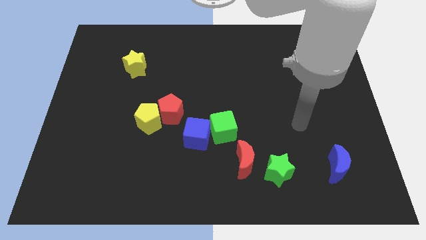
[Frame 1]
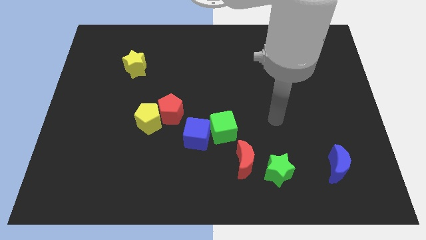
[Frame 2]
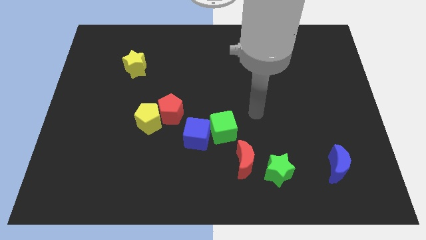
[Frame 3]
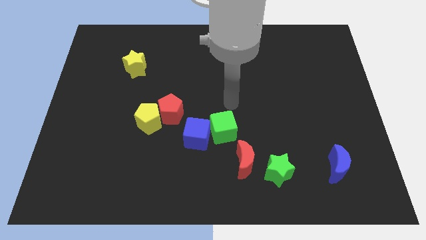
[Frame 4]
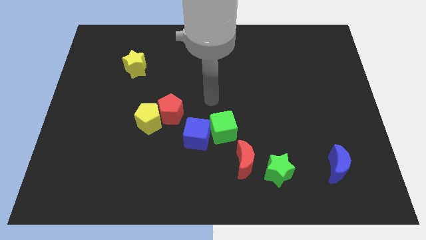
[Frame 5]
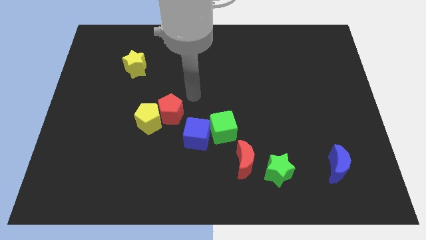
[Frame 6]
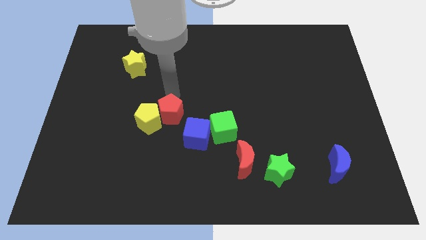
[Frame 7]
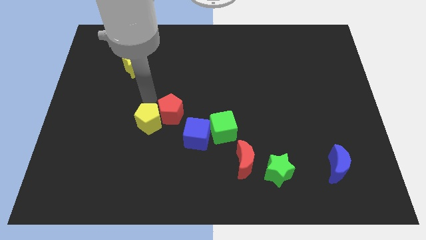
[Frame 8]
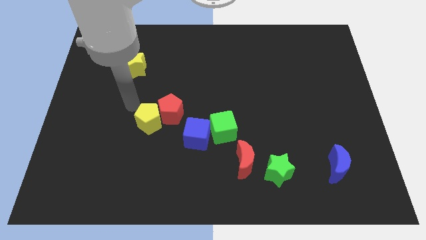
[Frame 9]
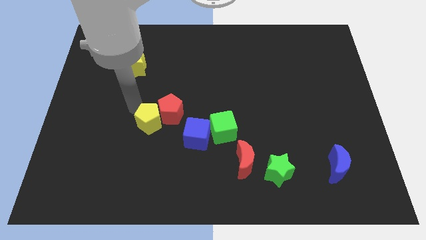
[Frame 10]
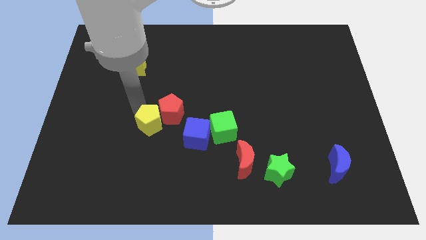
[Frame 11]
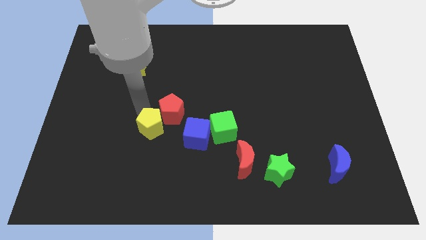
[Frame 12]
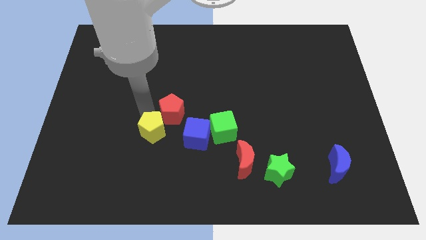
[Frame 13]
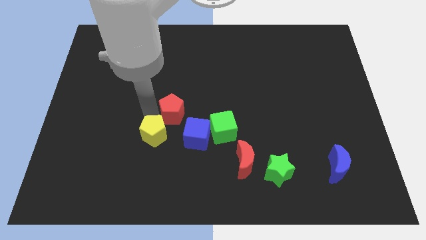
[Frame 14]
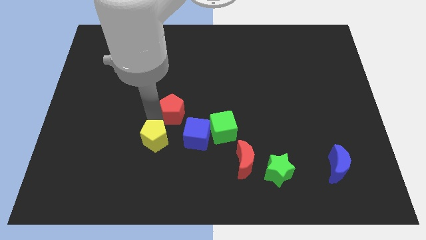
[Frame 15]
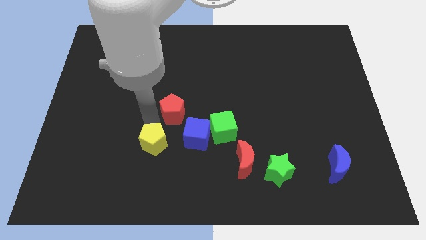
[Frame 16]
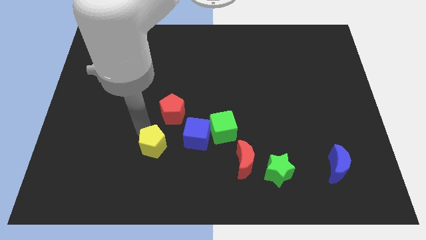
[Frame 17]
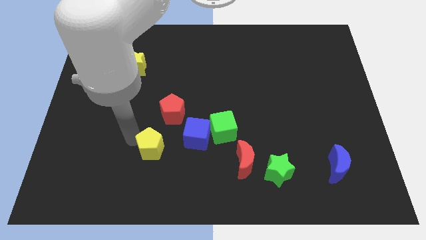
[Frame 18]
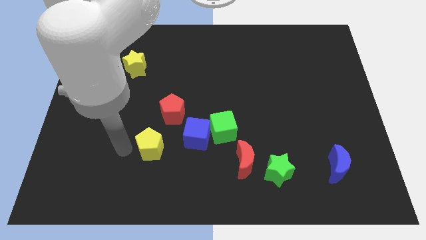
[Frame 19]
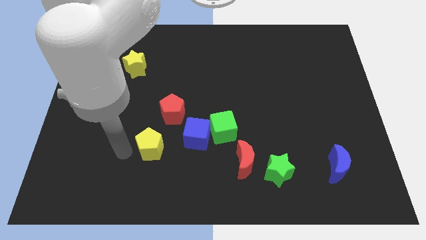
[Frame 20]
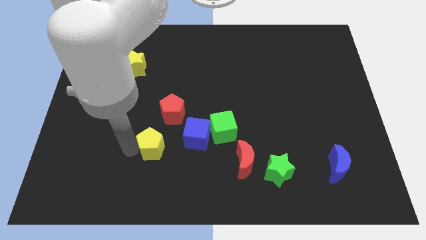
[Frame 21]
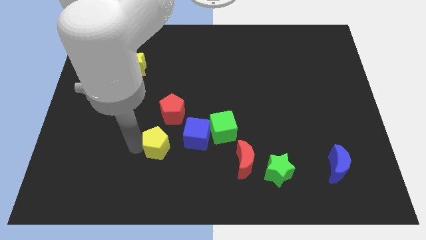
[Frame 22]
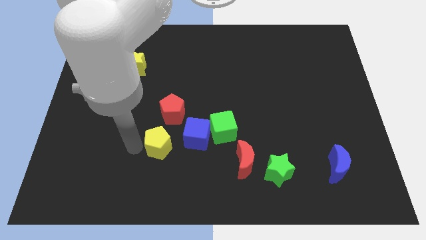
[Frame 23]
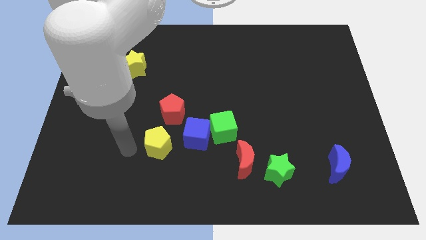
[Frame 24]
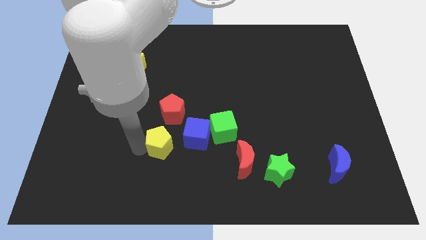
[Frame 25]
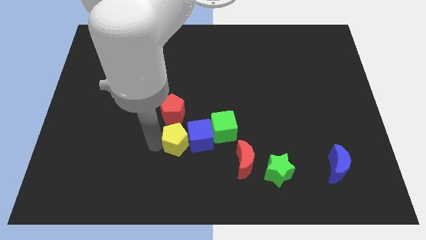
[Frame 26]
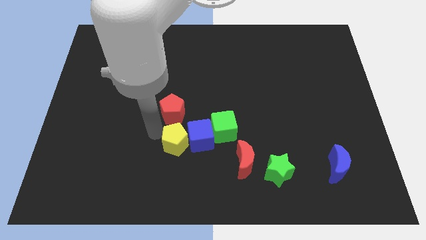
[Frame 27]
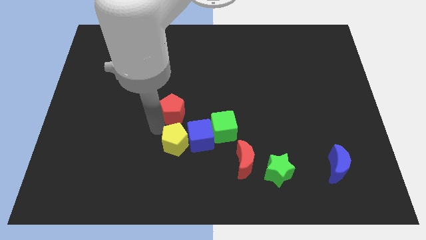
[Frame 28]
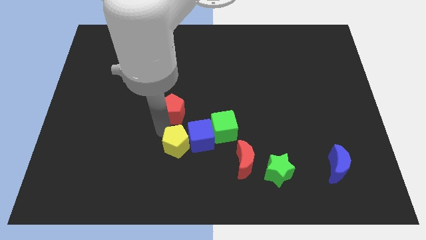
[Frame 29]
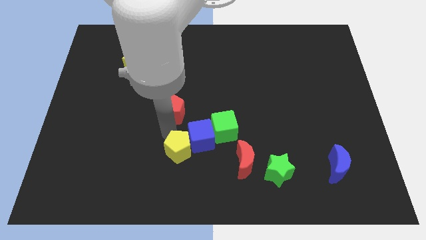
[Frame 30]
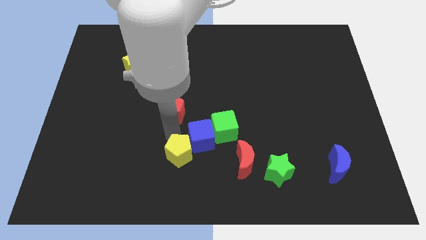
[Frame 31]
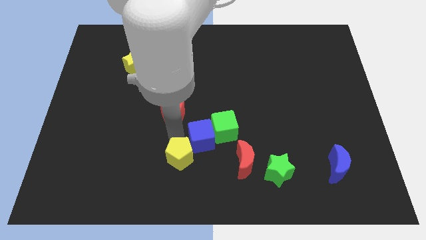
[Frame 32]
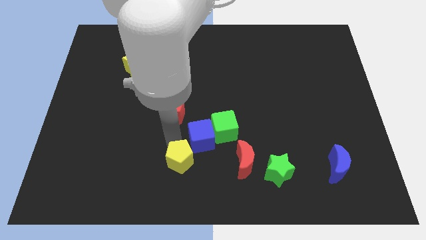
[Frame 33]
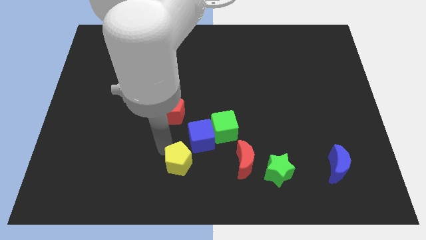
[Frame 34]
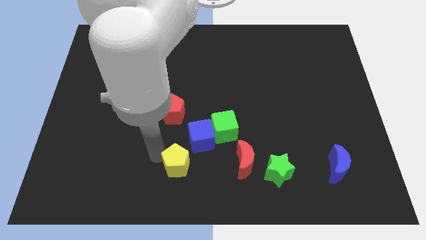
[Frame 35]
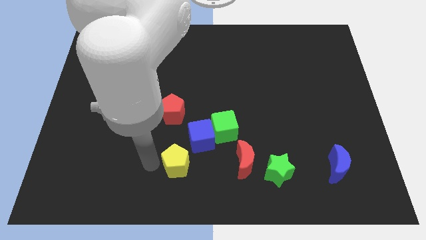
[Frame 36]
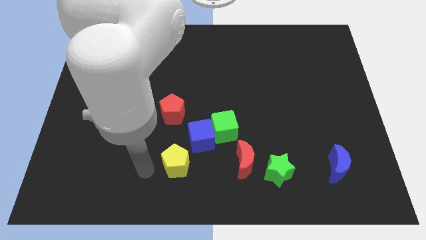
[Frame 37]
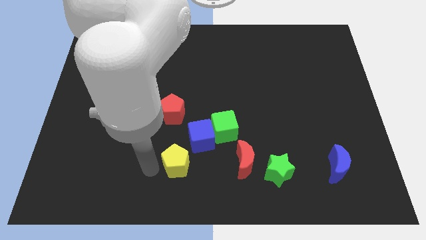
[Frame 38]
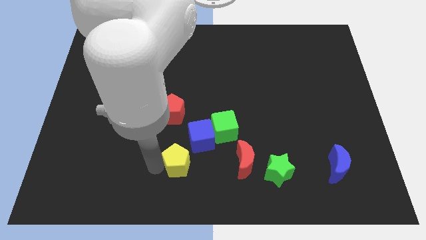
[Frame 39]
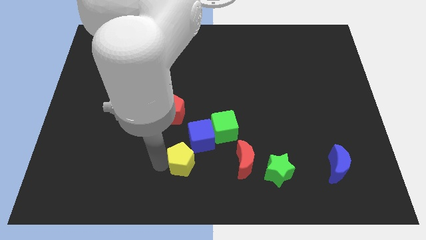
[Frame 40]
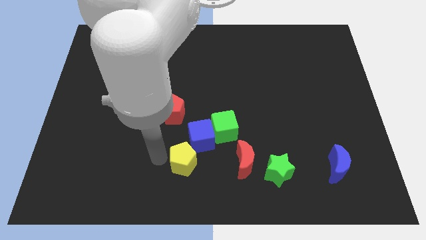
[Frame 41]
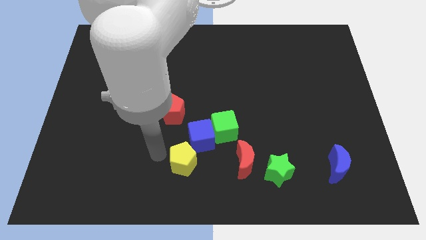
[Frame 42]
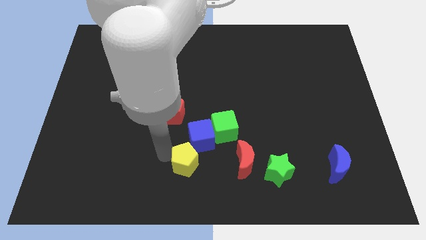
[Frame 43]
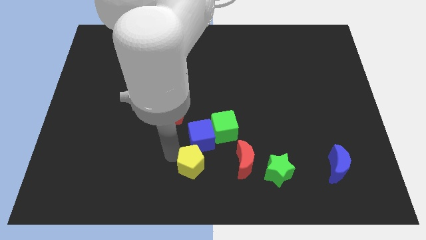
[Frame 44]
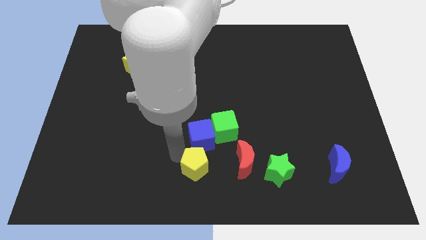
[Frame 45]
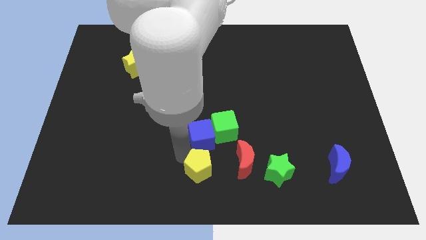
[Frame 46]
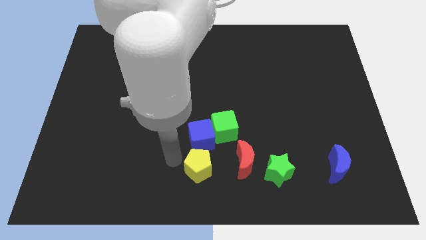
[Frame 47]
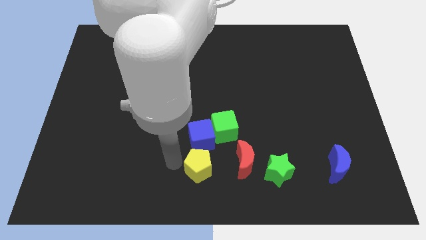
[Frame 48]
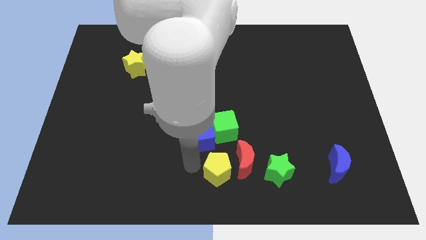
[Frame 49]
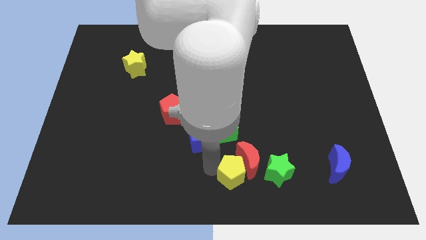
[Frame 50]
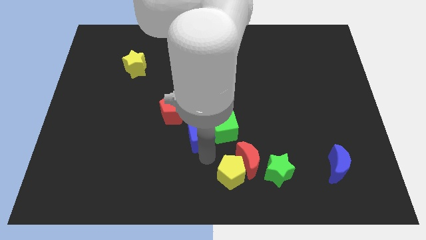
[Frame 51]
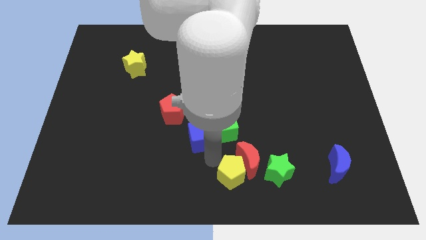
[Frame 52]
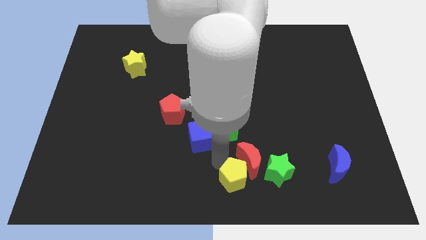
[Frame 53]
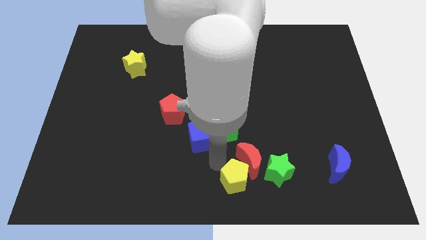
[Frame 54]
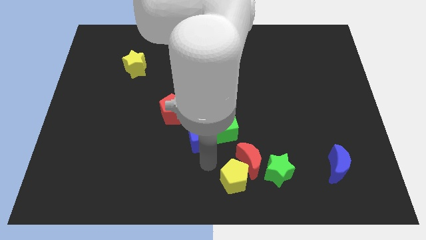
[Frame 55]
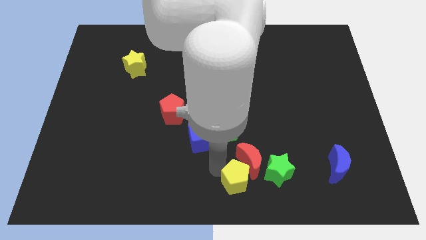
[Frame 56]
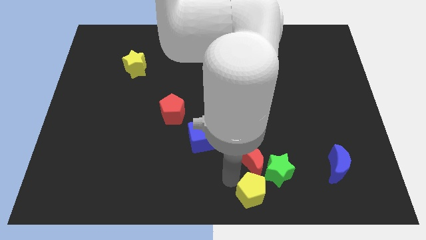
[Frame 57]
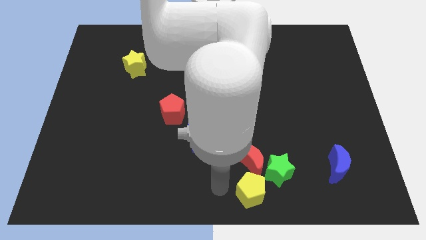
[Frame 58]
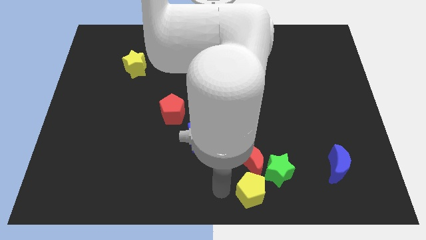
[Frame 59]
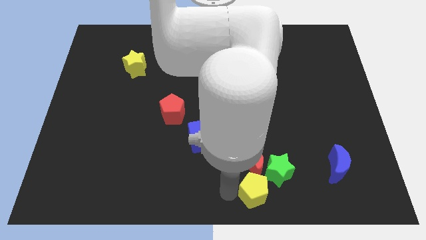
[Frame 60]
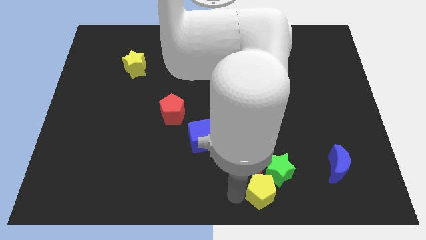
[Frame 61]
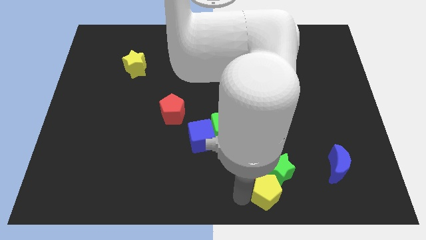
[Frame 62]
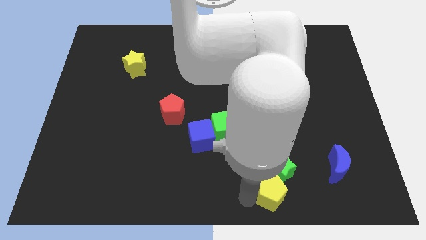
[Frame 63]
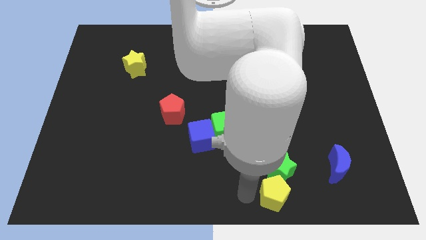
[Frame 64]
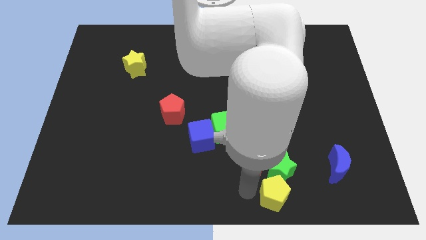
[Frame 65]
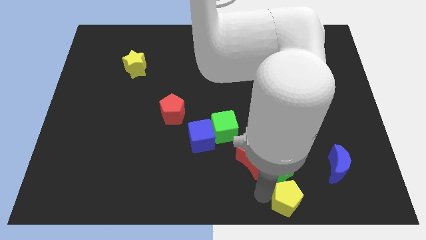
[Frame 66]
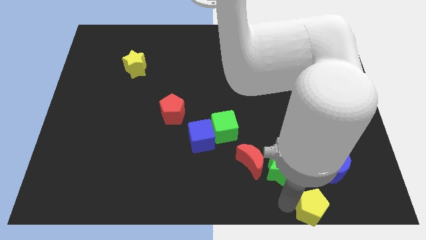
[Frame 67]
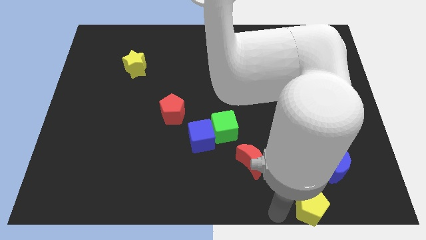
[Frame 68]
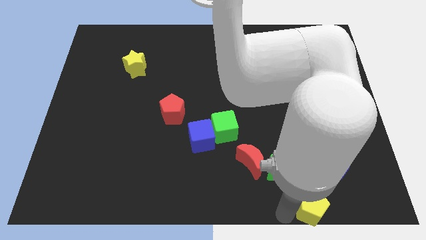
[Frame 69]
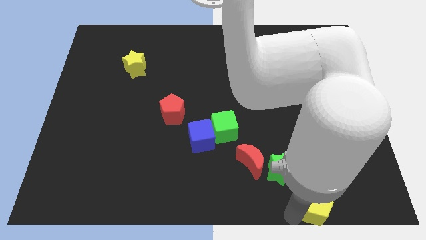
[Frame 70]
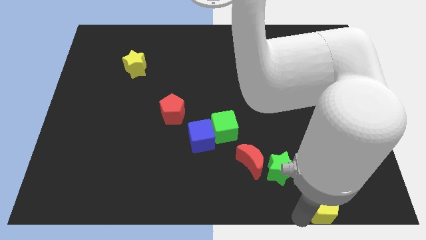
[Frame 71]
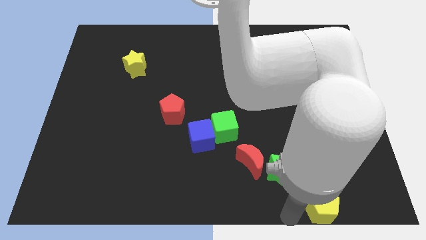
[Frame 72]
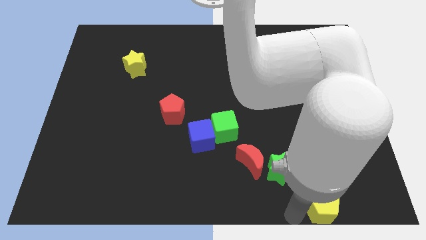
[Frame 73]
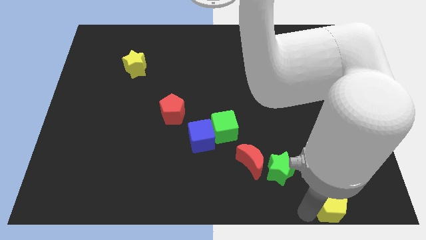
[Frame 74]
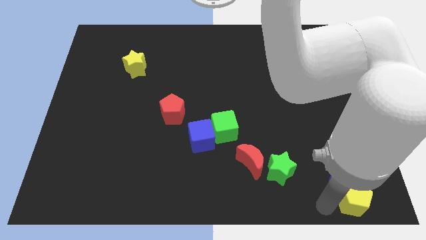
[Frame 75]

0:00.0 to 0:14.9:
push the yellow pentagon to the bottom right corner
